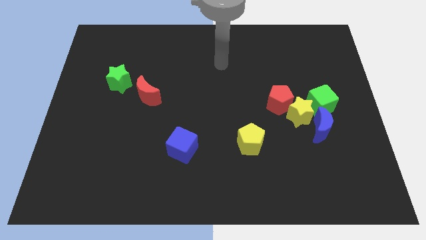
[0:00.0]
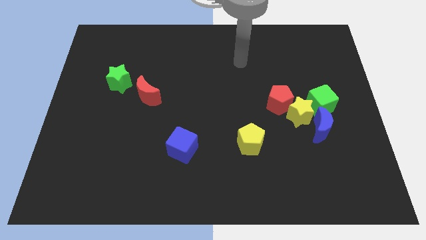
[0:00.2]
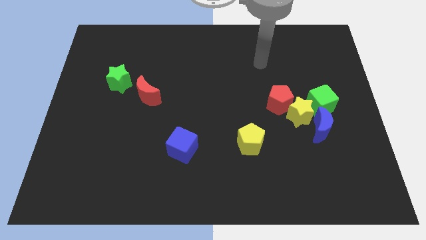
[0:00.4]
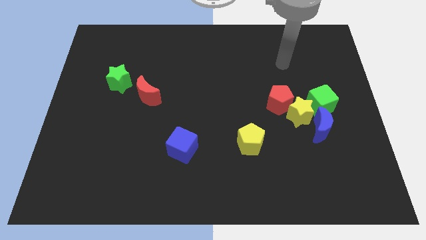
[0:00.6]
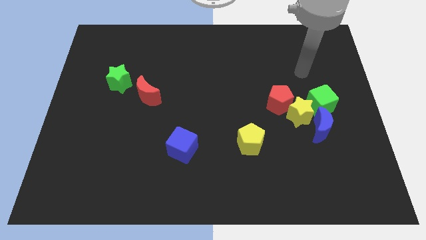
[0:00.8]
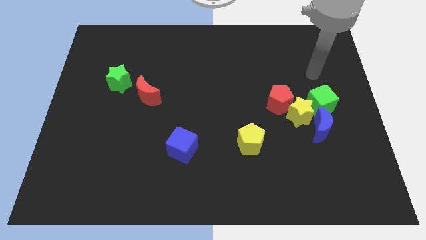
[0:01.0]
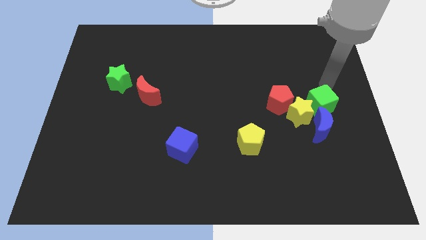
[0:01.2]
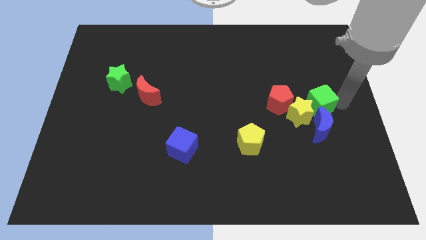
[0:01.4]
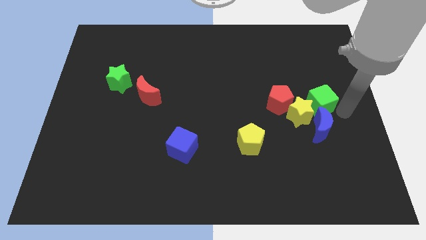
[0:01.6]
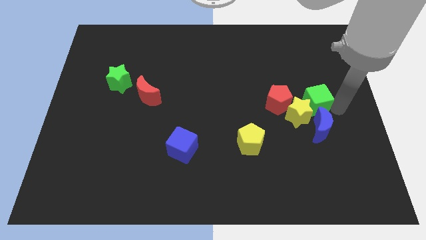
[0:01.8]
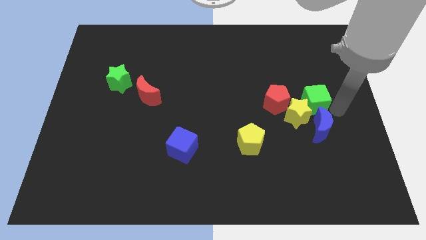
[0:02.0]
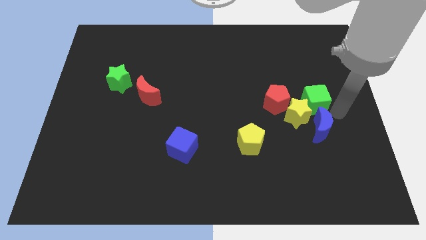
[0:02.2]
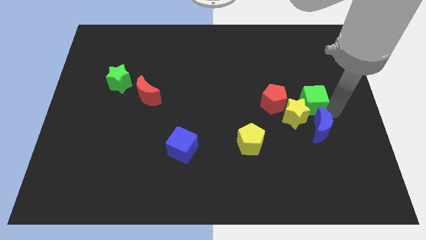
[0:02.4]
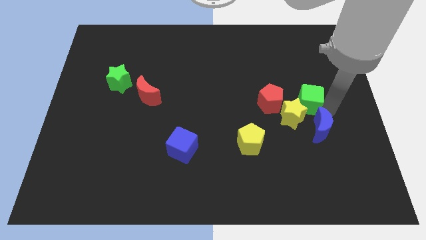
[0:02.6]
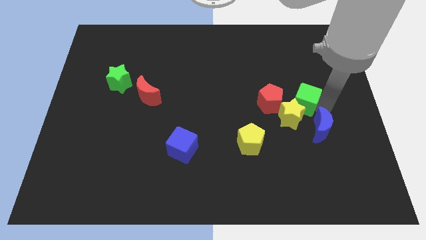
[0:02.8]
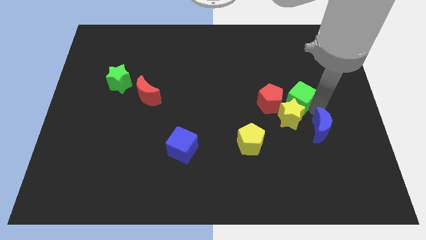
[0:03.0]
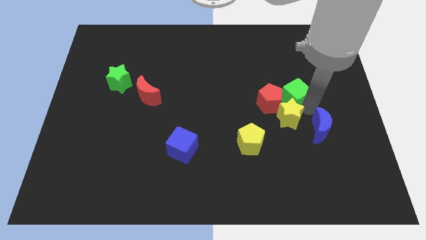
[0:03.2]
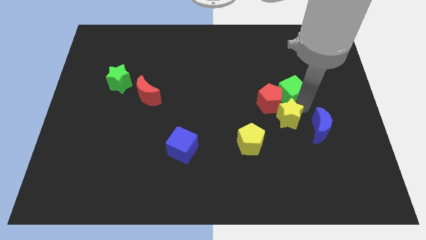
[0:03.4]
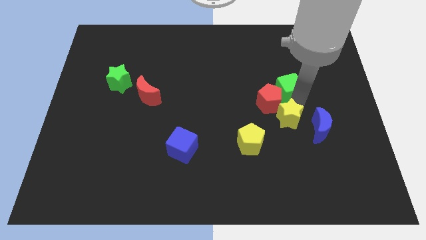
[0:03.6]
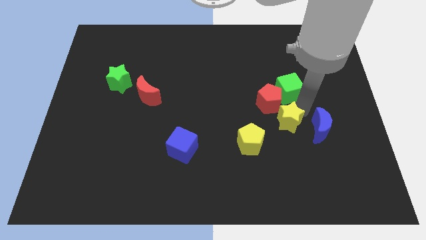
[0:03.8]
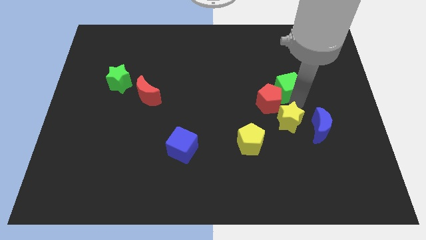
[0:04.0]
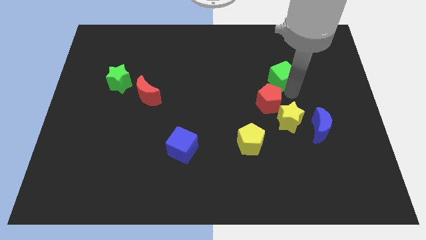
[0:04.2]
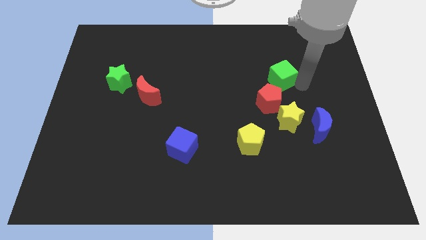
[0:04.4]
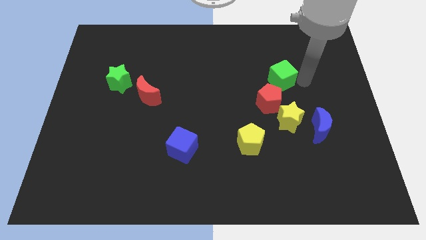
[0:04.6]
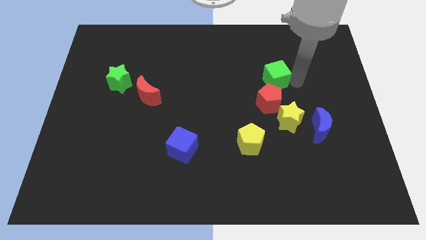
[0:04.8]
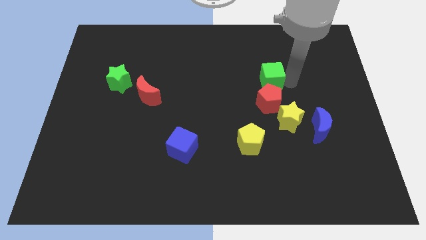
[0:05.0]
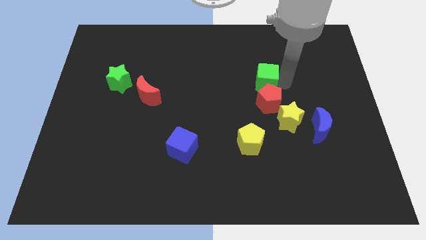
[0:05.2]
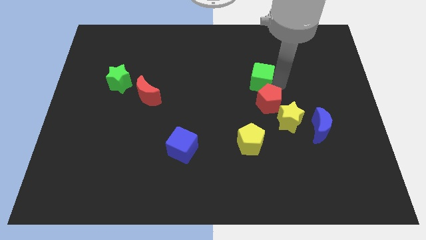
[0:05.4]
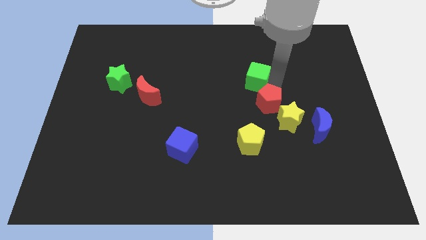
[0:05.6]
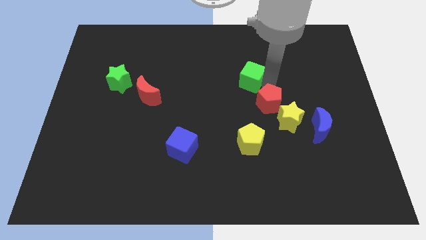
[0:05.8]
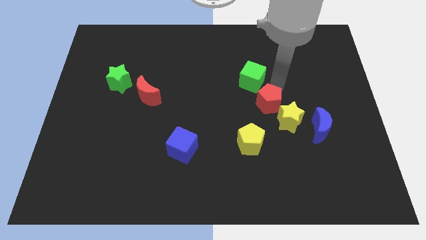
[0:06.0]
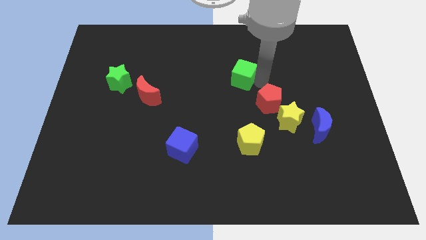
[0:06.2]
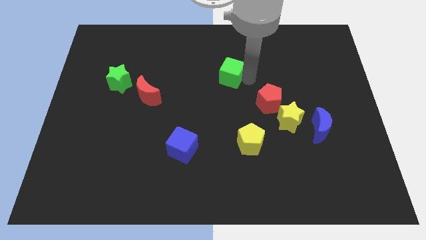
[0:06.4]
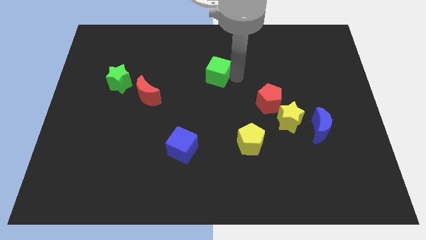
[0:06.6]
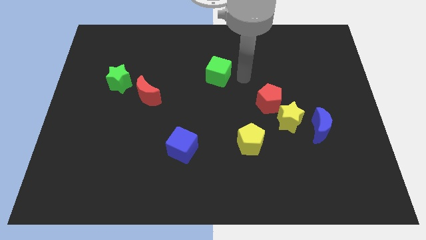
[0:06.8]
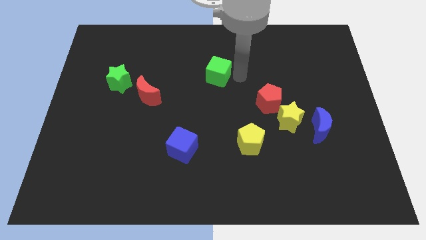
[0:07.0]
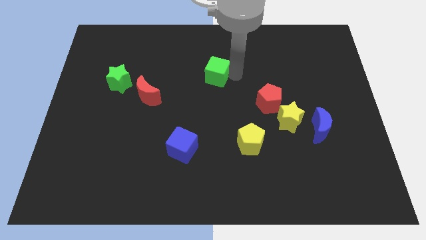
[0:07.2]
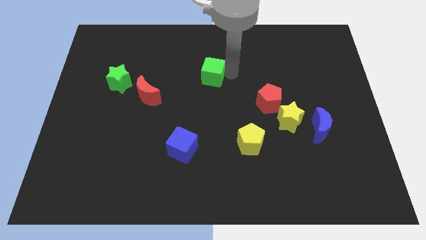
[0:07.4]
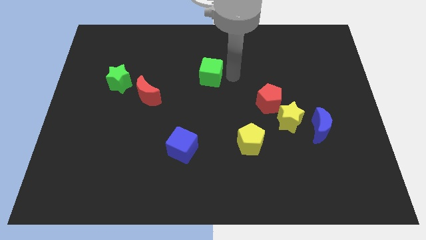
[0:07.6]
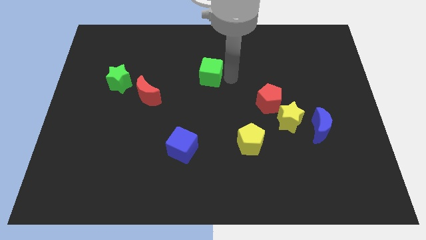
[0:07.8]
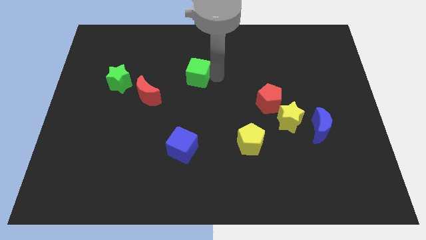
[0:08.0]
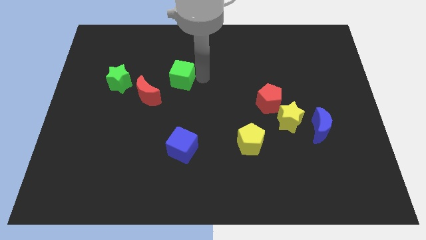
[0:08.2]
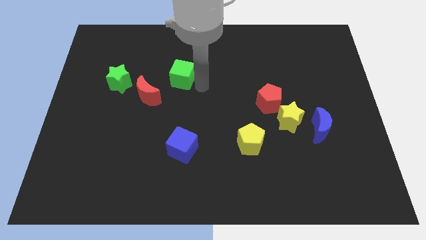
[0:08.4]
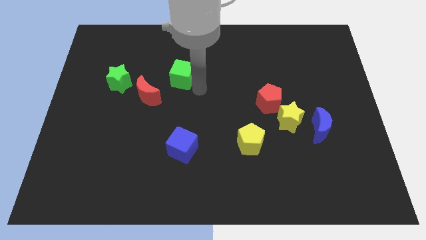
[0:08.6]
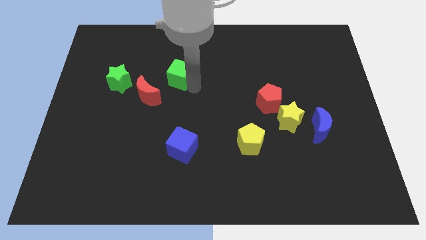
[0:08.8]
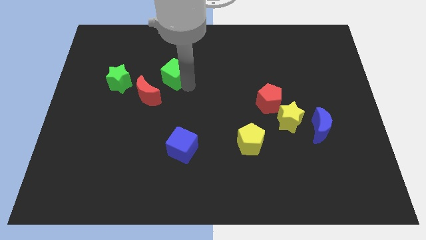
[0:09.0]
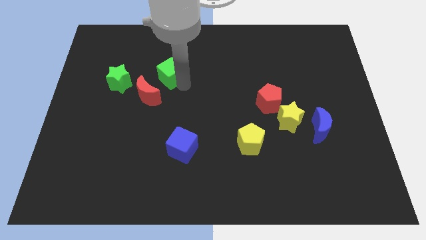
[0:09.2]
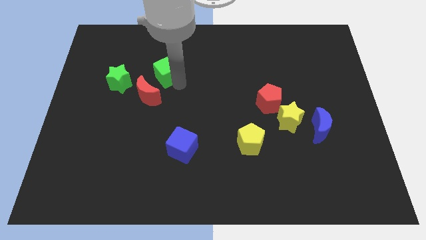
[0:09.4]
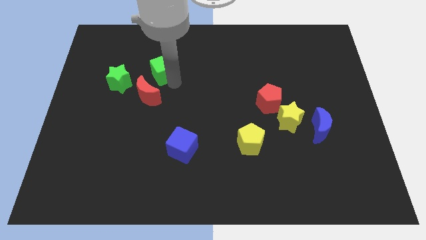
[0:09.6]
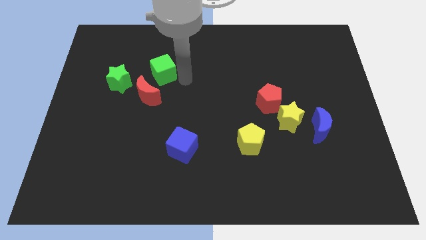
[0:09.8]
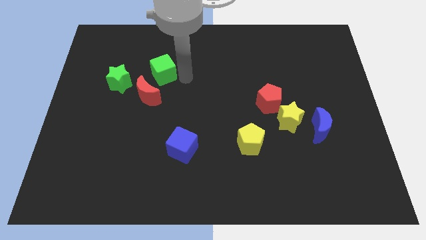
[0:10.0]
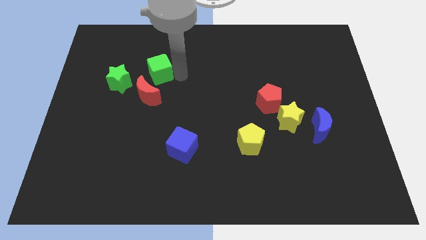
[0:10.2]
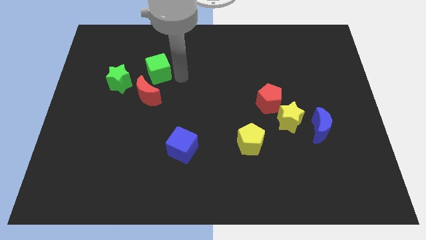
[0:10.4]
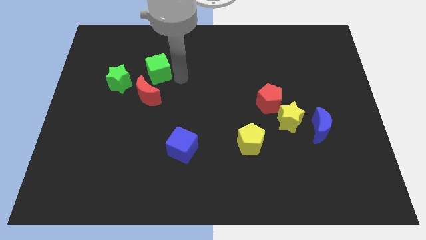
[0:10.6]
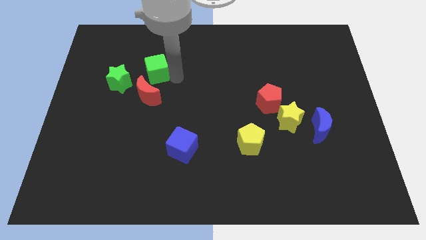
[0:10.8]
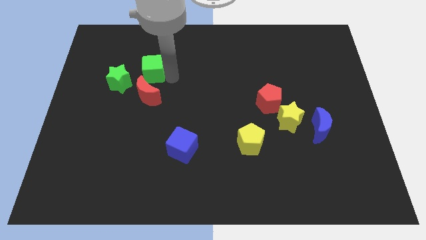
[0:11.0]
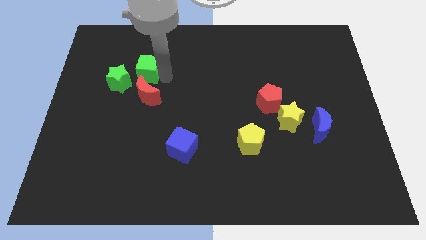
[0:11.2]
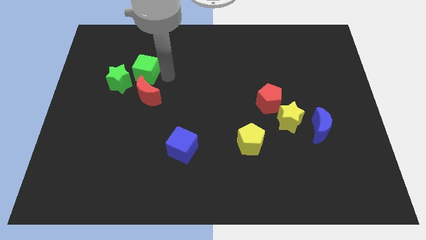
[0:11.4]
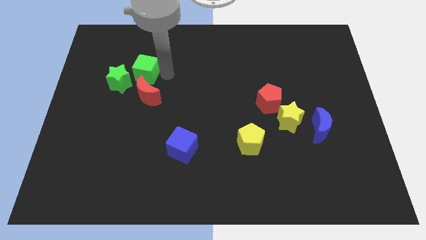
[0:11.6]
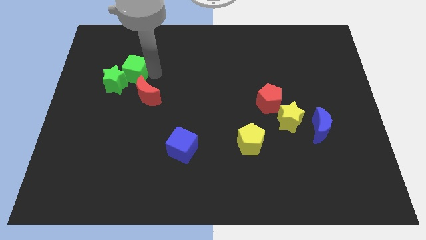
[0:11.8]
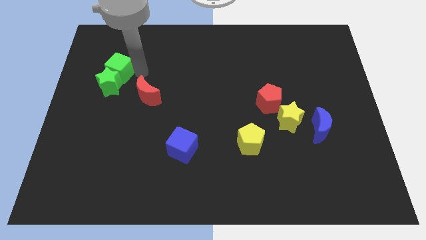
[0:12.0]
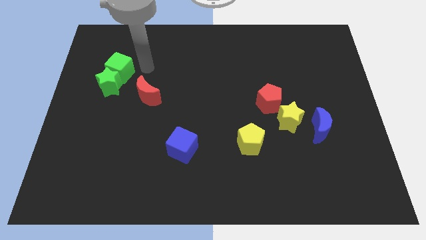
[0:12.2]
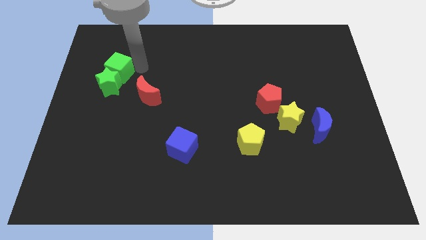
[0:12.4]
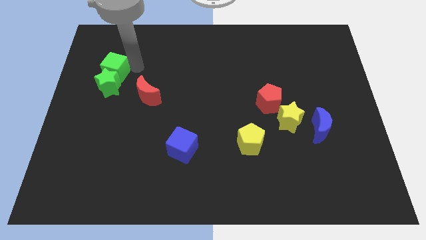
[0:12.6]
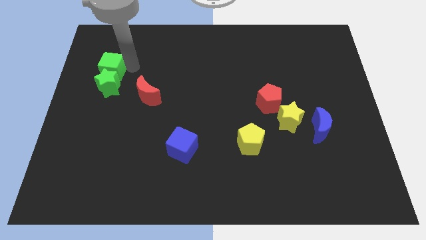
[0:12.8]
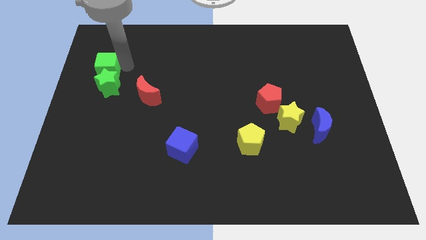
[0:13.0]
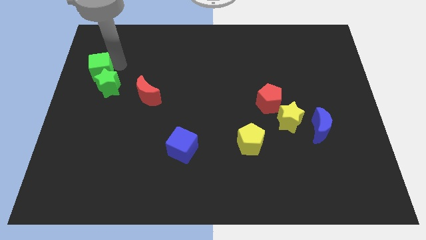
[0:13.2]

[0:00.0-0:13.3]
slide the green cube to the left side
